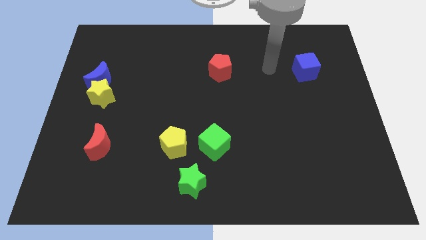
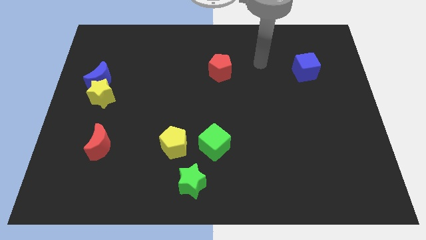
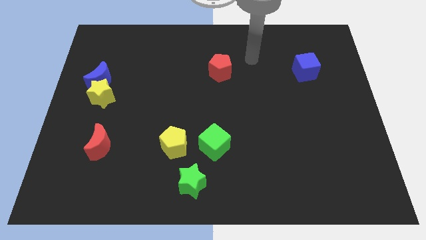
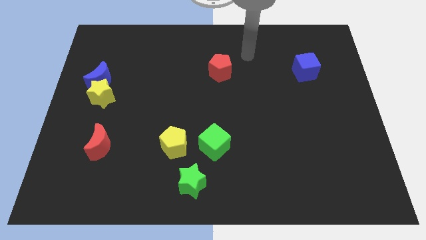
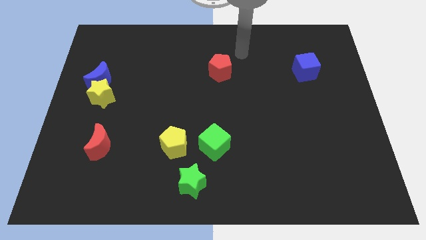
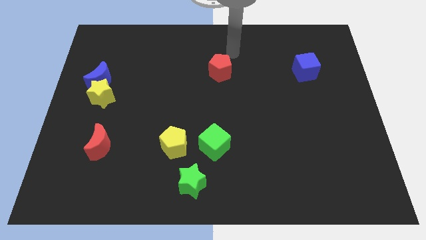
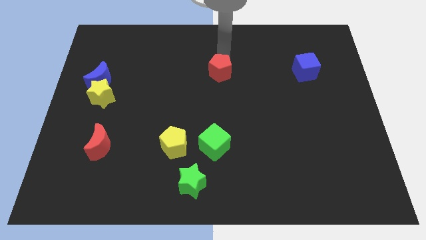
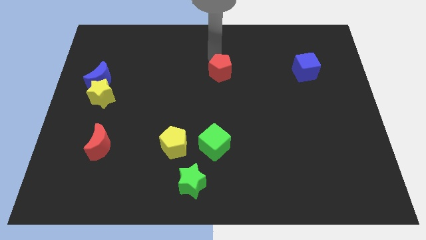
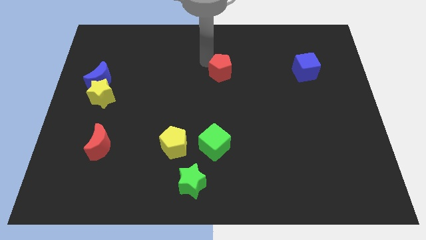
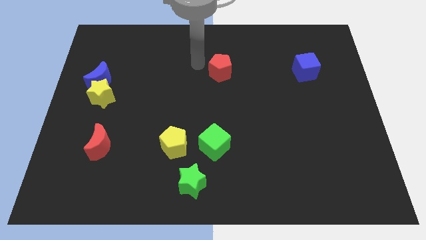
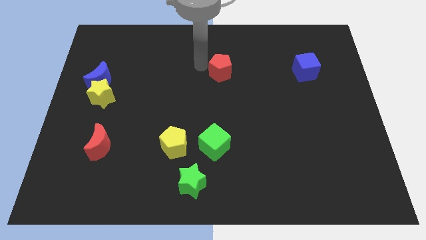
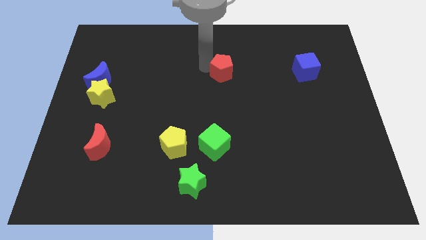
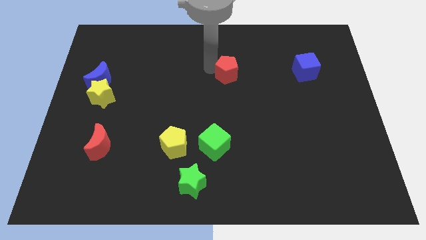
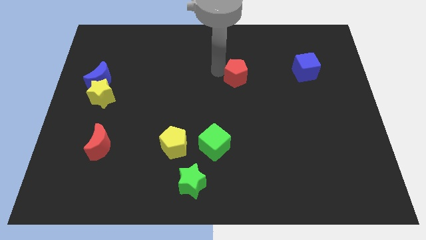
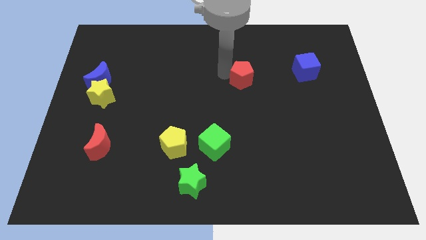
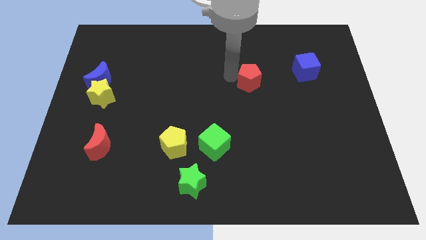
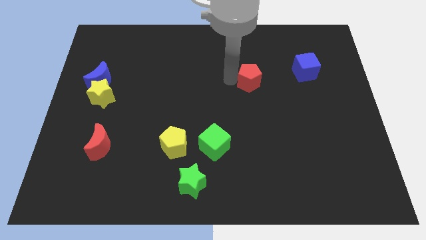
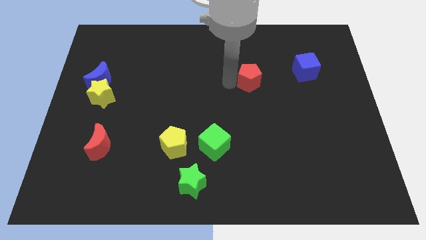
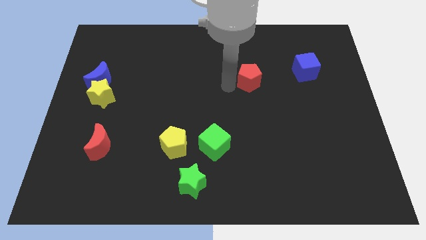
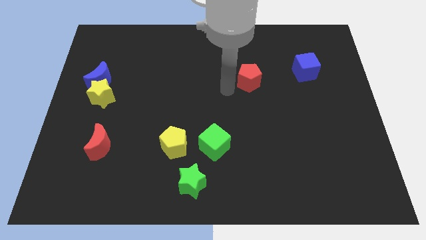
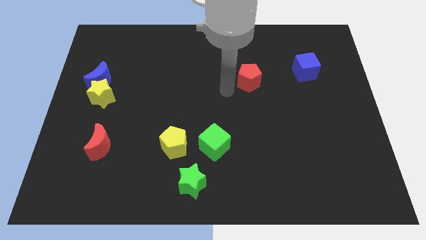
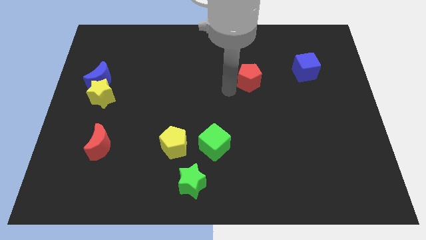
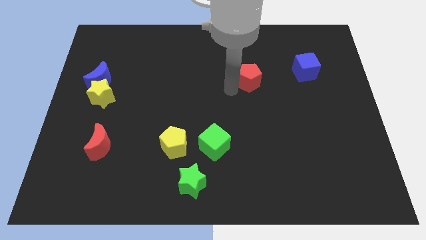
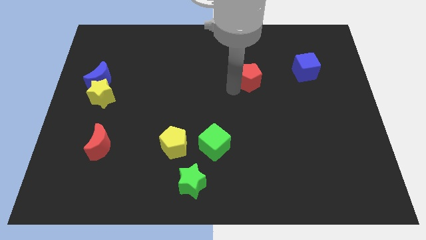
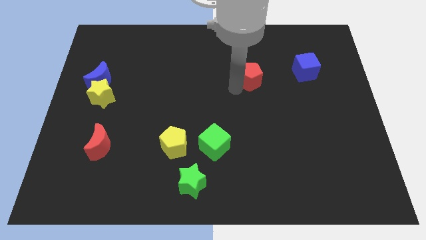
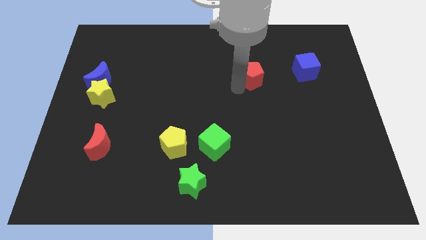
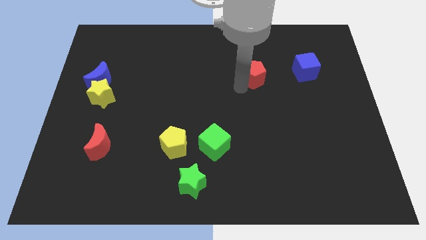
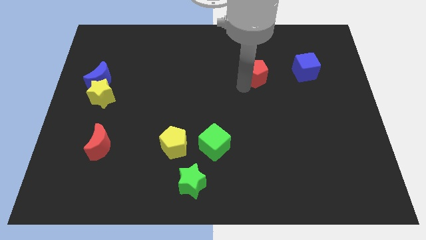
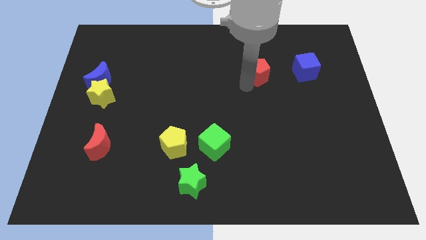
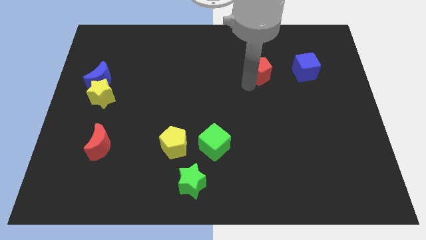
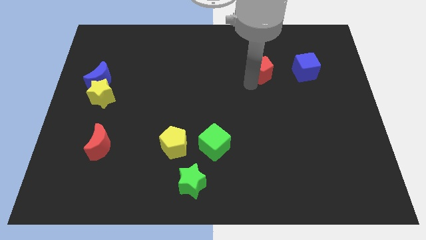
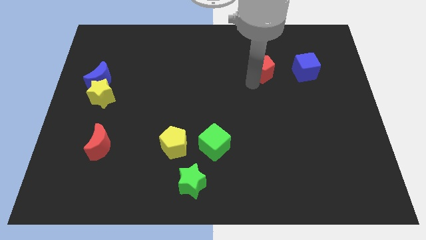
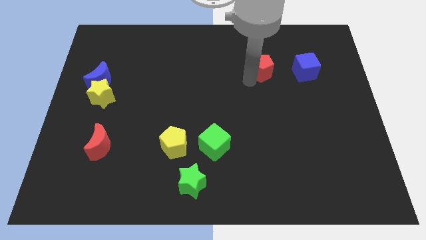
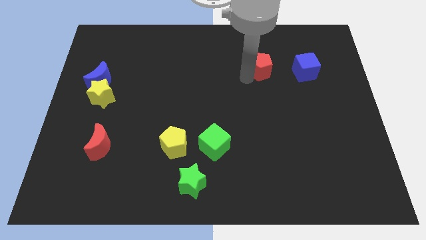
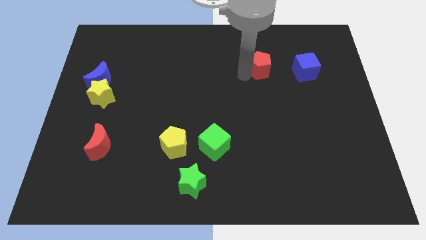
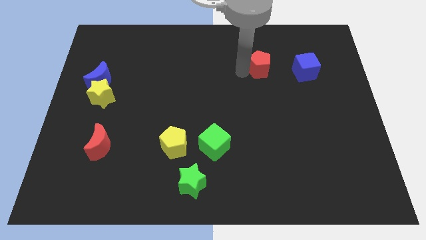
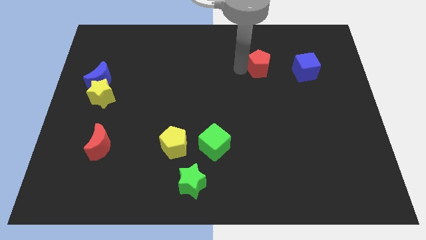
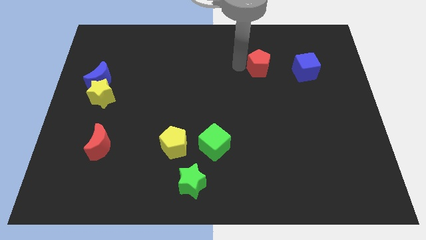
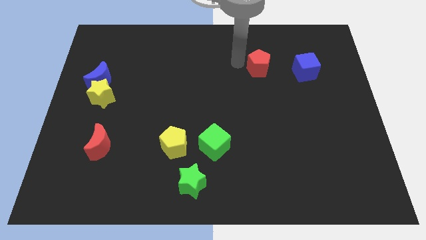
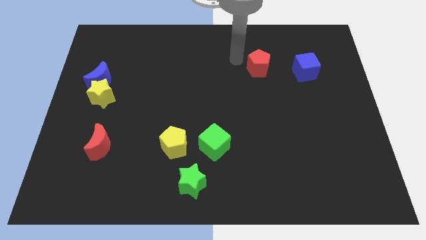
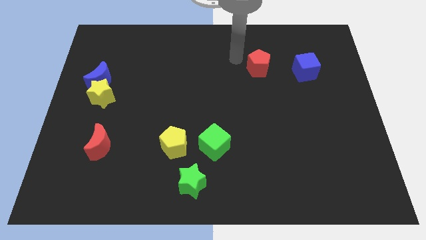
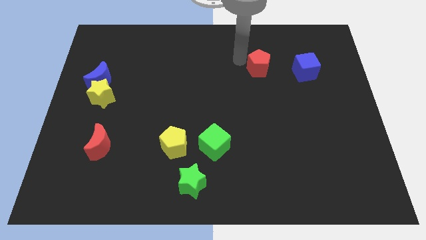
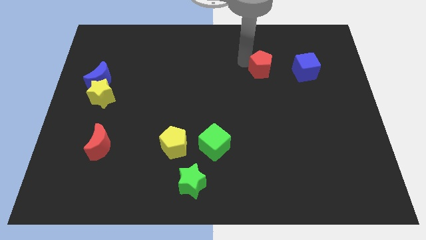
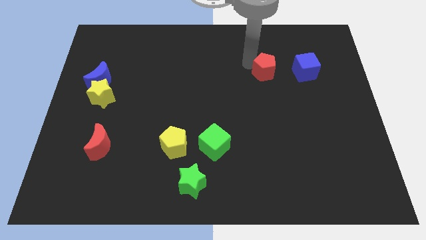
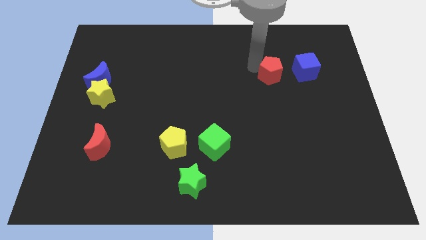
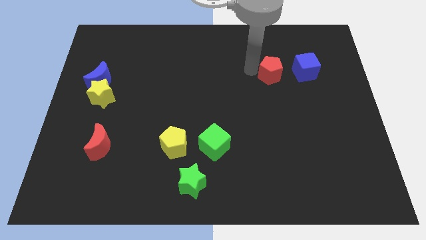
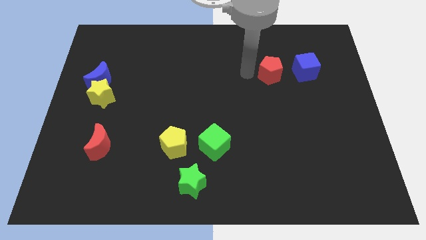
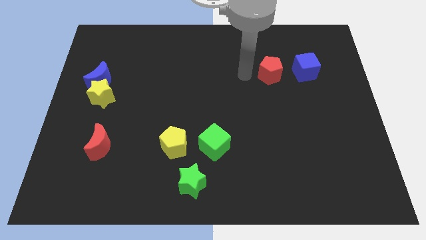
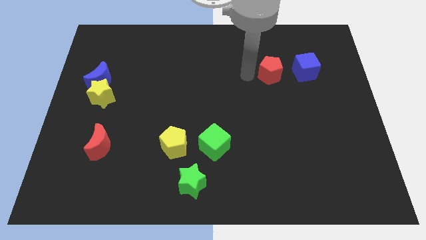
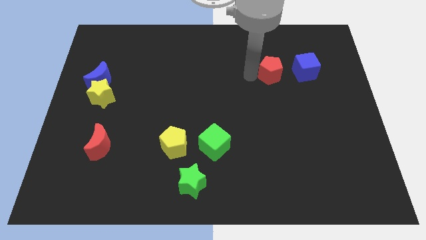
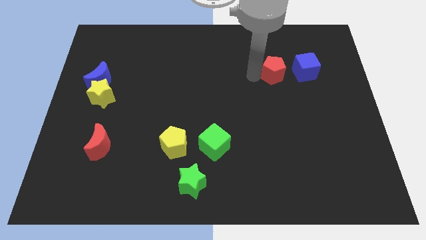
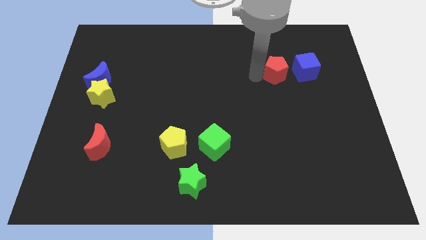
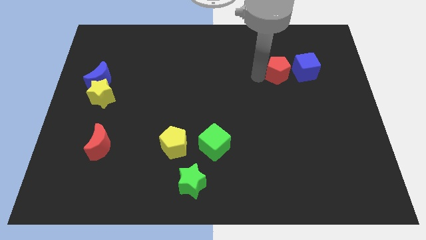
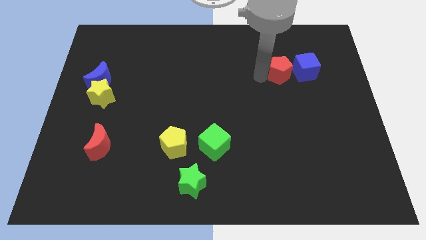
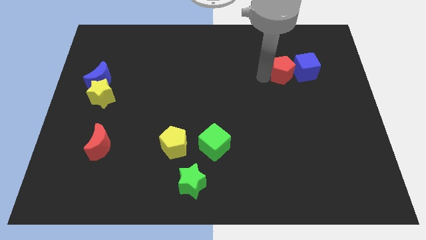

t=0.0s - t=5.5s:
push the red pentagon next to the blue cube
